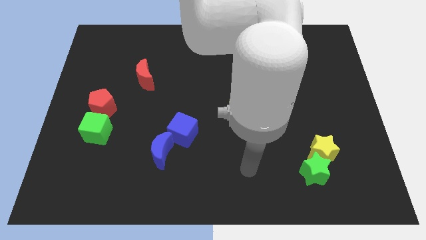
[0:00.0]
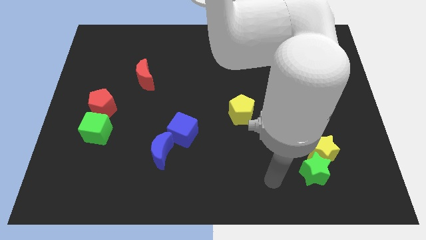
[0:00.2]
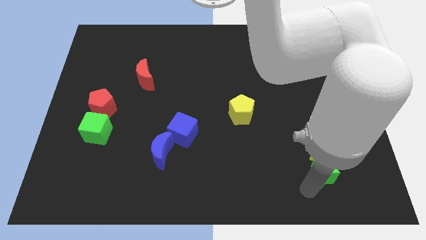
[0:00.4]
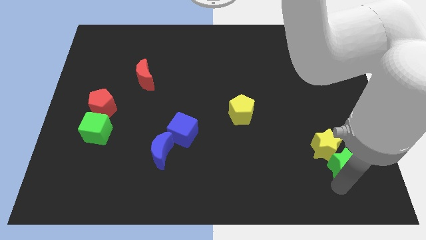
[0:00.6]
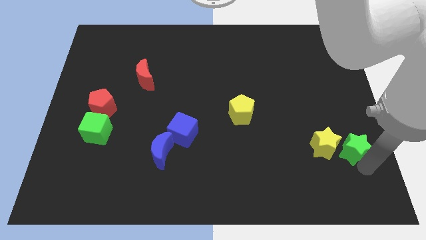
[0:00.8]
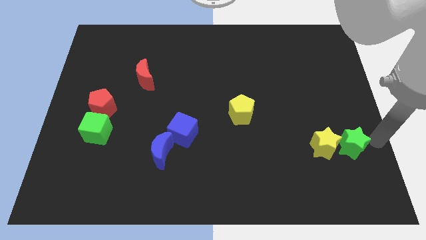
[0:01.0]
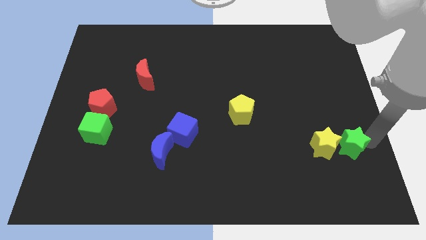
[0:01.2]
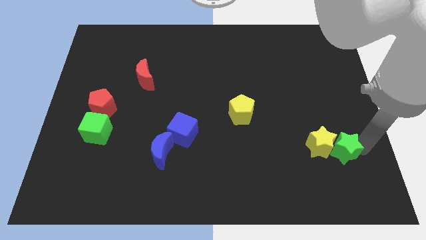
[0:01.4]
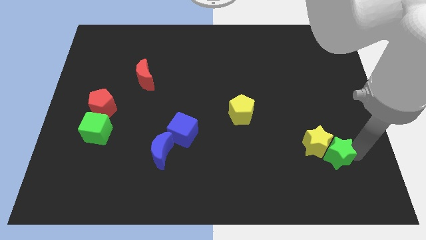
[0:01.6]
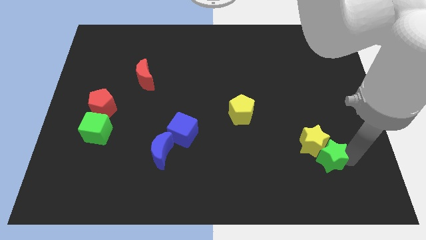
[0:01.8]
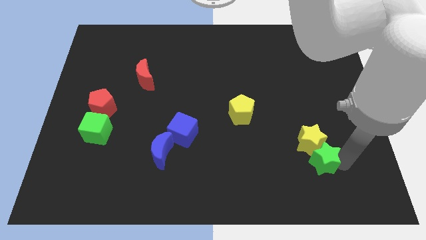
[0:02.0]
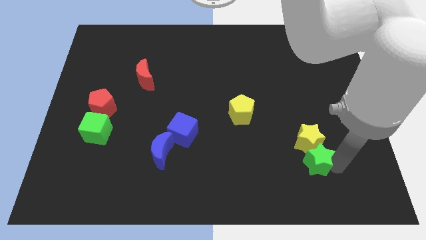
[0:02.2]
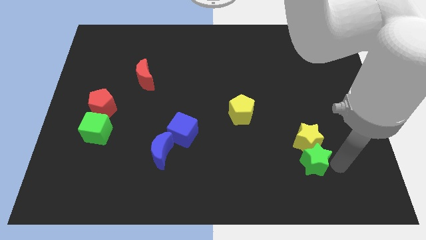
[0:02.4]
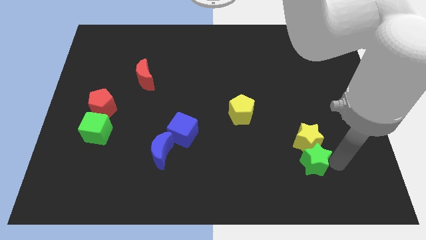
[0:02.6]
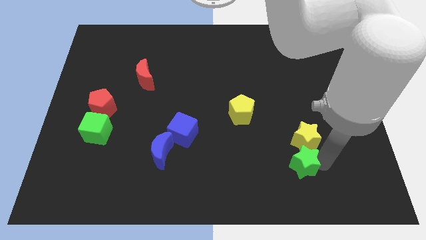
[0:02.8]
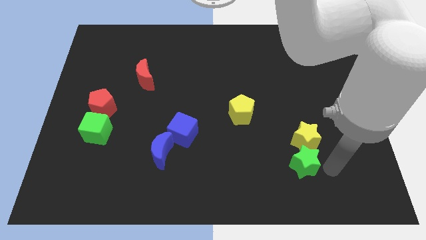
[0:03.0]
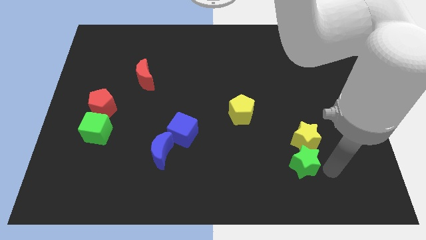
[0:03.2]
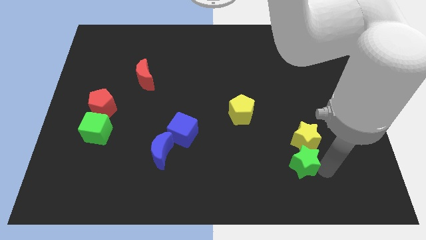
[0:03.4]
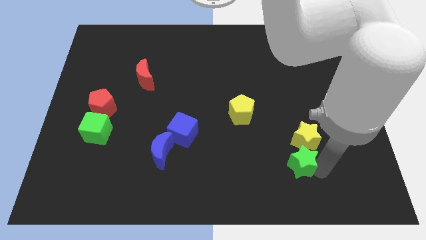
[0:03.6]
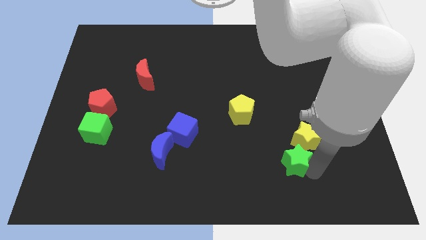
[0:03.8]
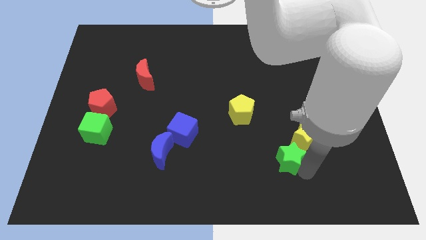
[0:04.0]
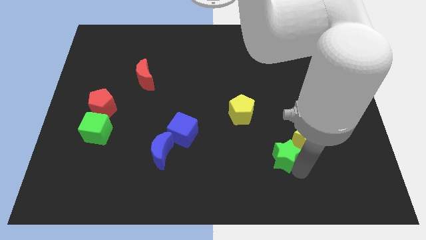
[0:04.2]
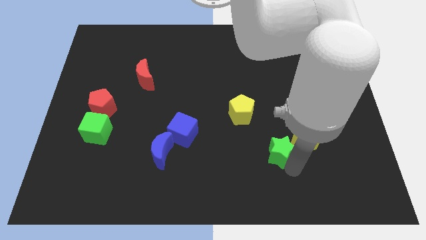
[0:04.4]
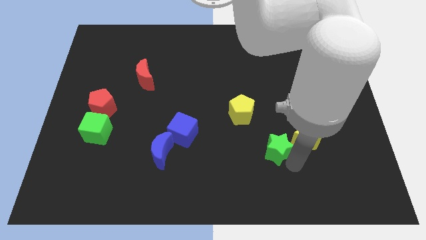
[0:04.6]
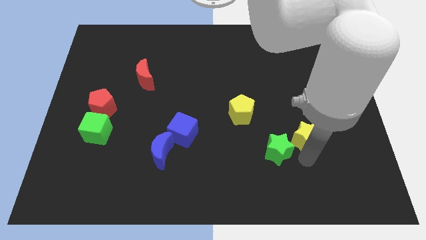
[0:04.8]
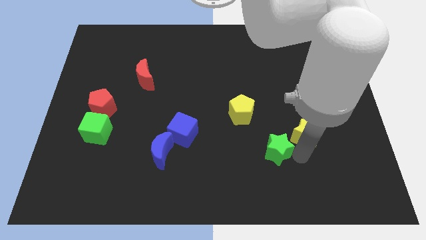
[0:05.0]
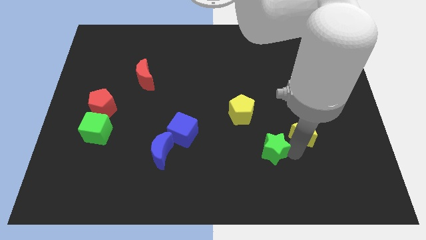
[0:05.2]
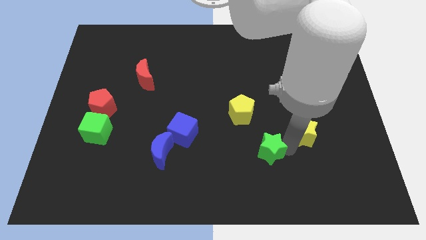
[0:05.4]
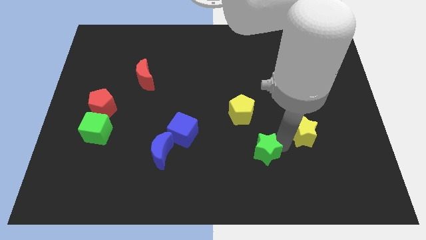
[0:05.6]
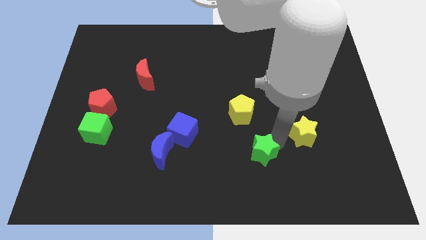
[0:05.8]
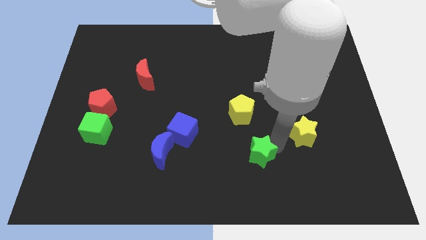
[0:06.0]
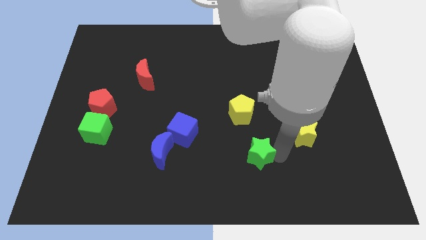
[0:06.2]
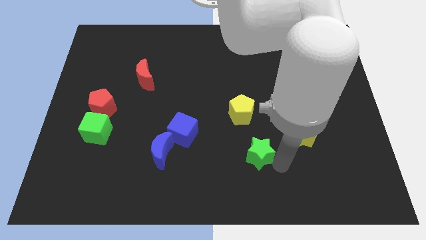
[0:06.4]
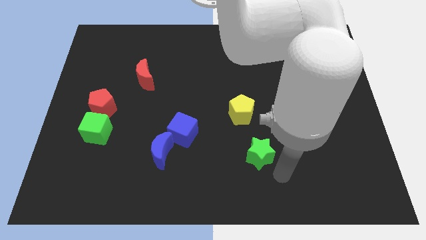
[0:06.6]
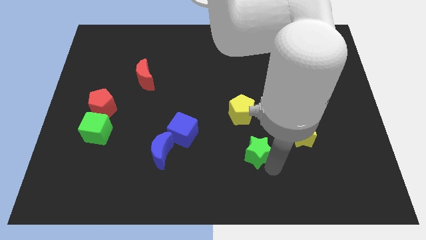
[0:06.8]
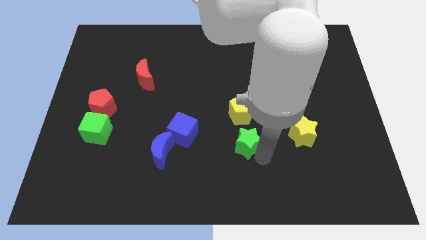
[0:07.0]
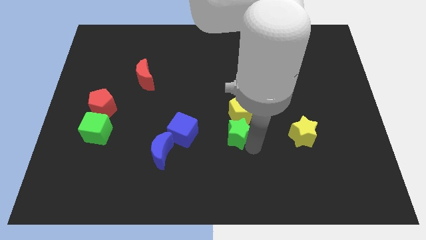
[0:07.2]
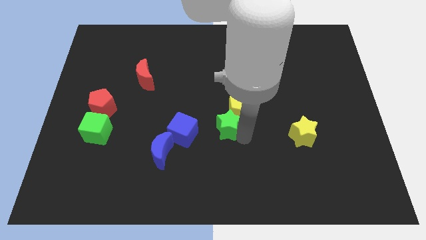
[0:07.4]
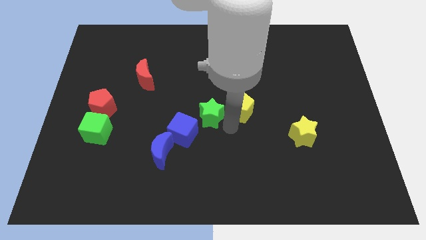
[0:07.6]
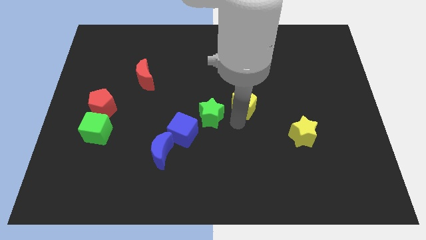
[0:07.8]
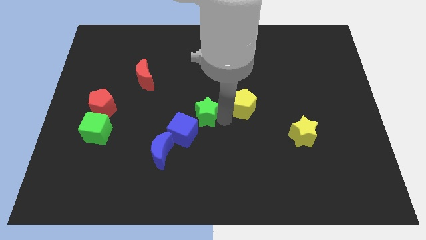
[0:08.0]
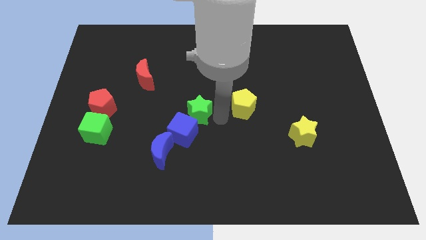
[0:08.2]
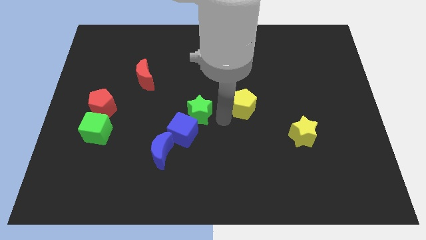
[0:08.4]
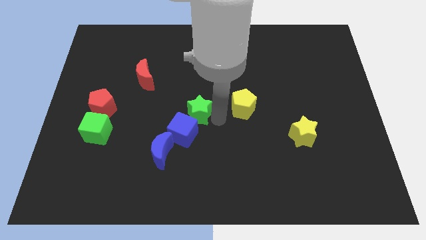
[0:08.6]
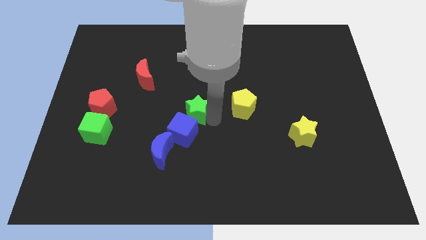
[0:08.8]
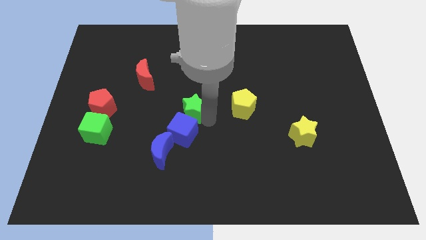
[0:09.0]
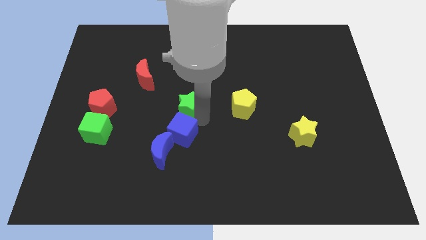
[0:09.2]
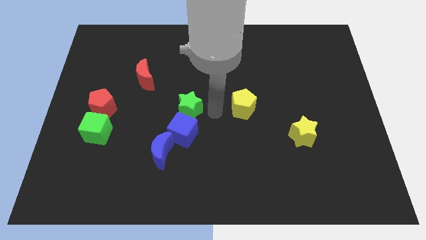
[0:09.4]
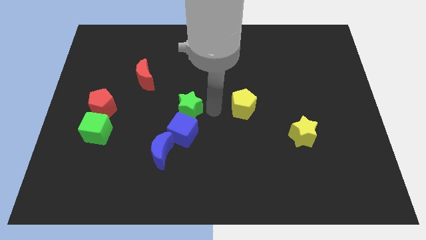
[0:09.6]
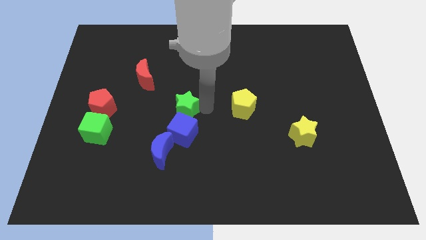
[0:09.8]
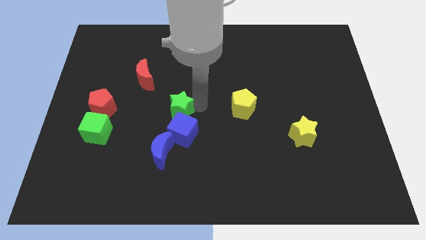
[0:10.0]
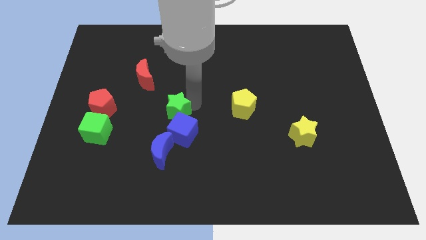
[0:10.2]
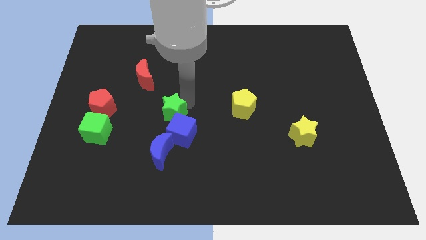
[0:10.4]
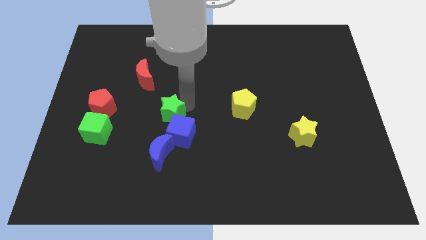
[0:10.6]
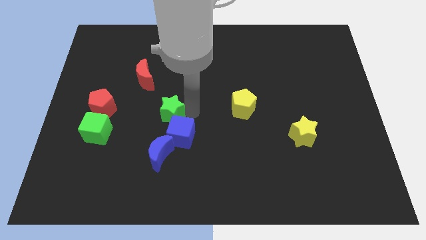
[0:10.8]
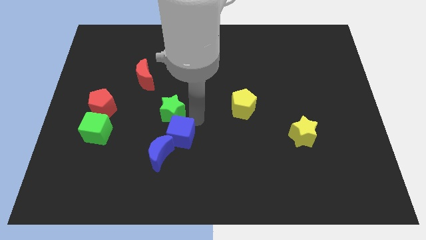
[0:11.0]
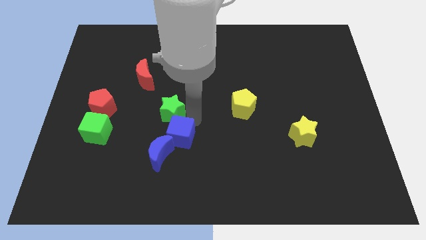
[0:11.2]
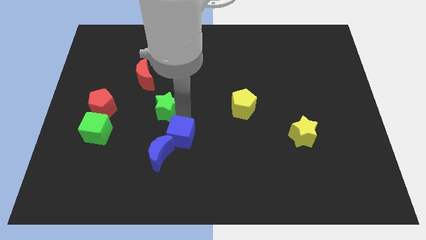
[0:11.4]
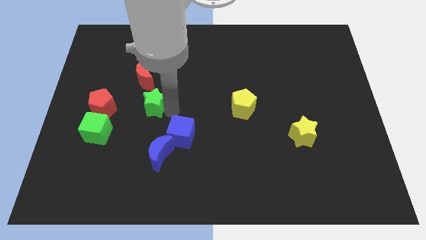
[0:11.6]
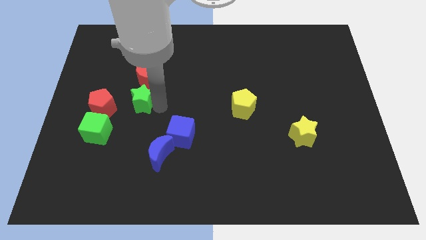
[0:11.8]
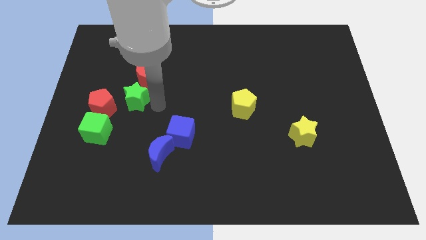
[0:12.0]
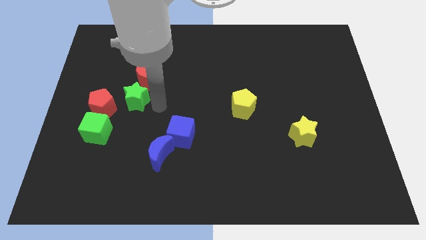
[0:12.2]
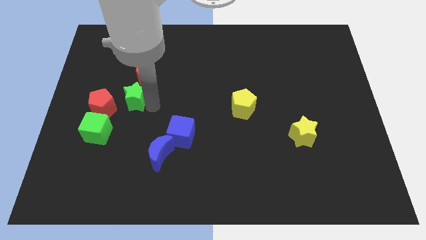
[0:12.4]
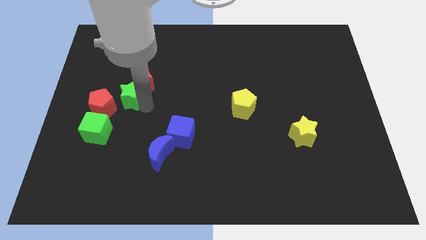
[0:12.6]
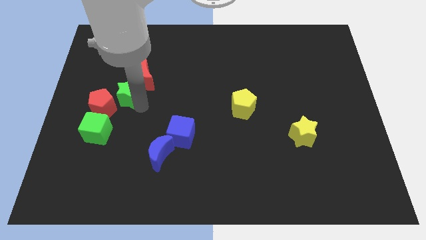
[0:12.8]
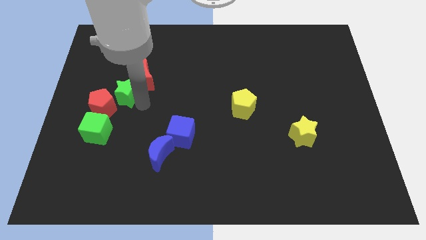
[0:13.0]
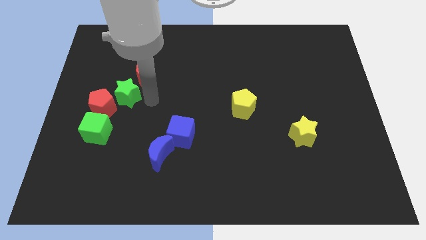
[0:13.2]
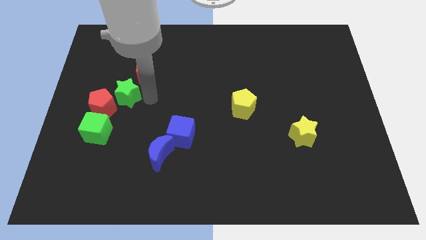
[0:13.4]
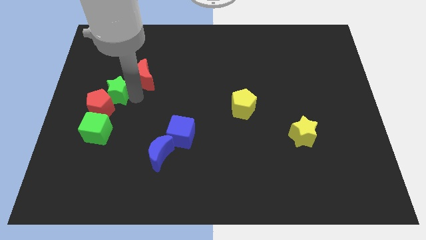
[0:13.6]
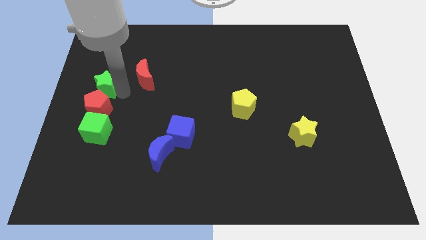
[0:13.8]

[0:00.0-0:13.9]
push the green star to the left side of the board
